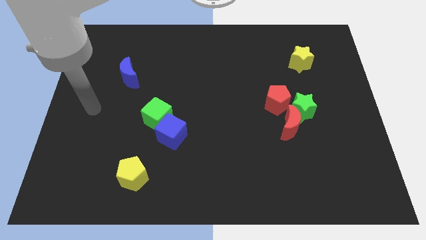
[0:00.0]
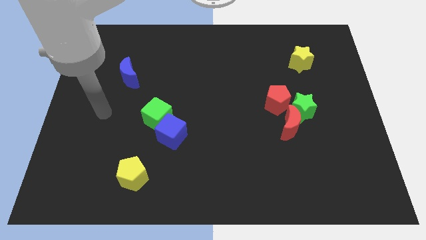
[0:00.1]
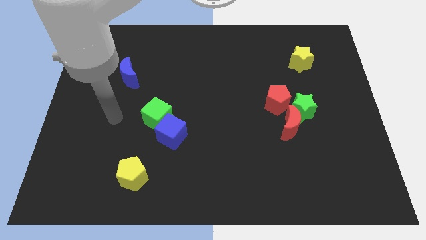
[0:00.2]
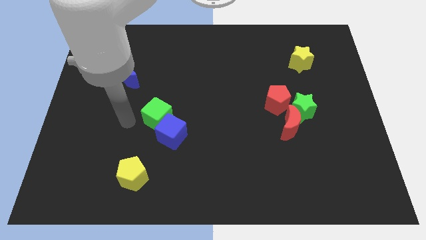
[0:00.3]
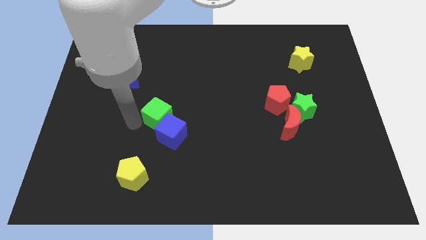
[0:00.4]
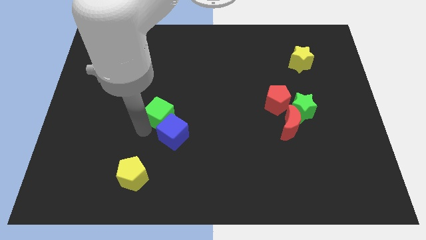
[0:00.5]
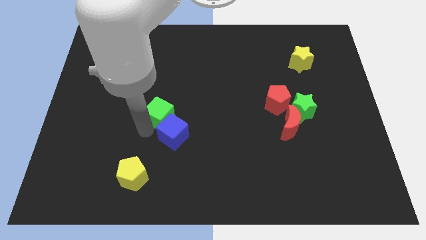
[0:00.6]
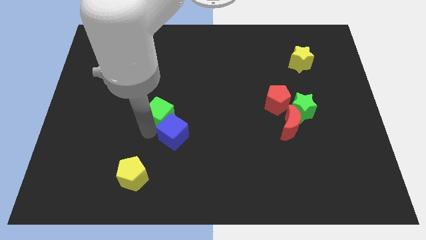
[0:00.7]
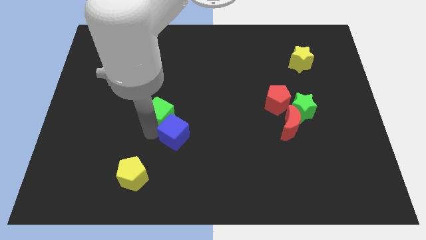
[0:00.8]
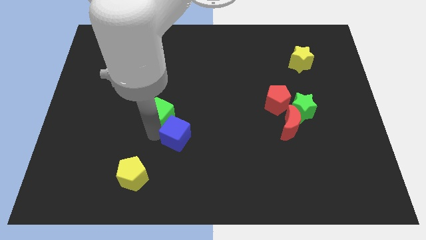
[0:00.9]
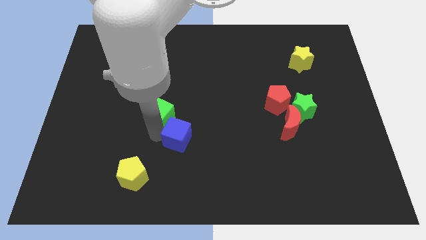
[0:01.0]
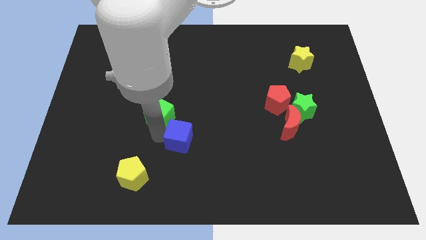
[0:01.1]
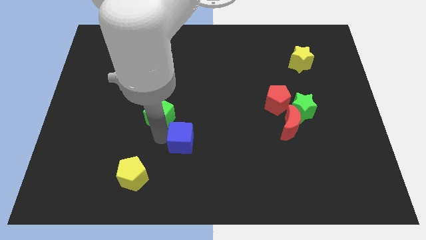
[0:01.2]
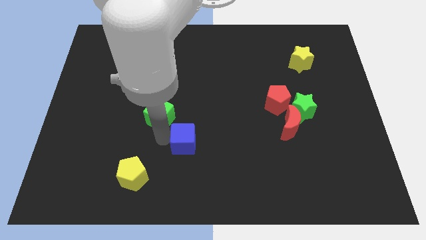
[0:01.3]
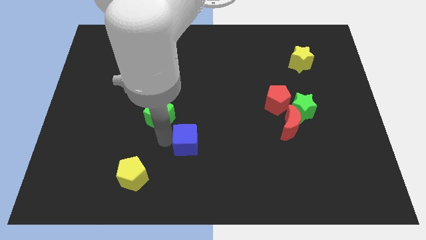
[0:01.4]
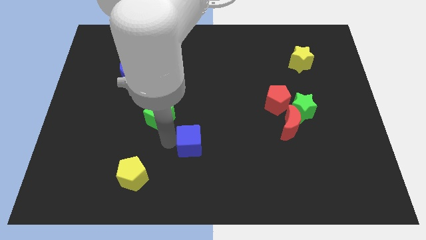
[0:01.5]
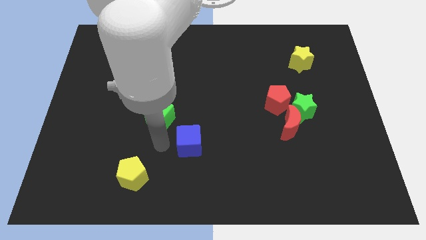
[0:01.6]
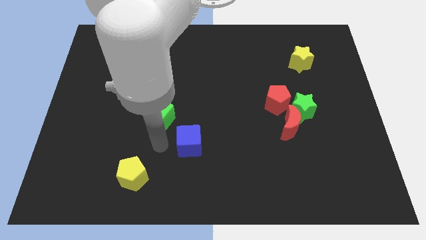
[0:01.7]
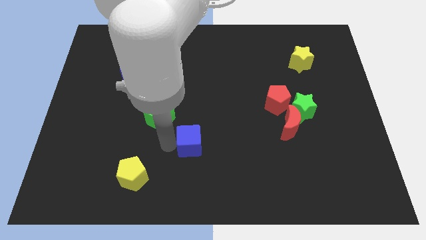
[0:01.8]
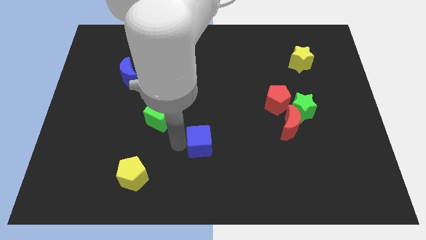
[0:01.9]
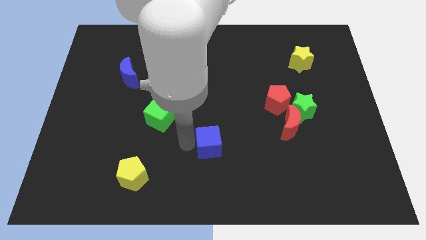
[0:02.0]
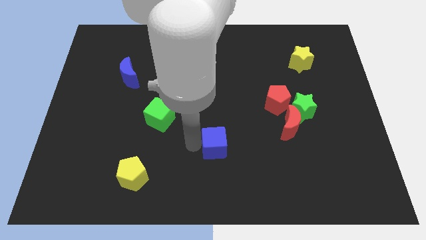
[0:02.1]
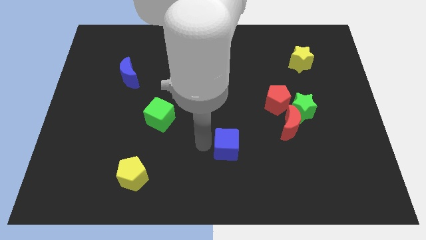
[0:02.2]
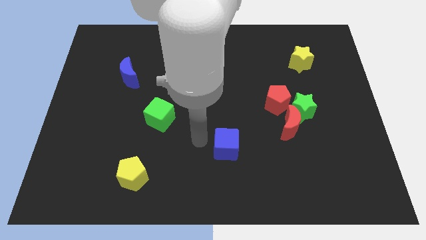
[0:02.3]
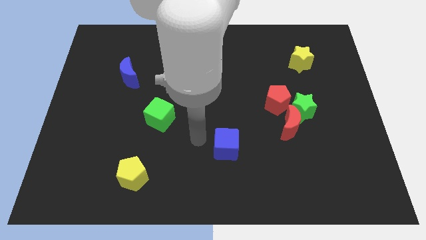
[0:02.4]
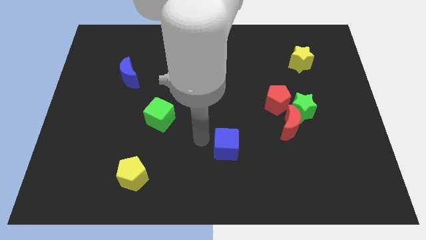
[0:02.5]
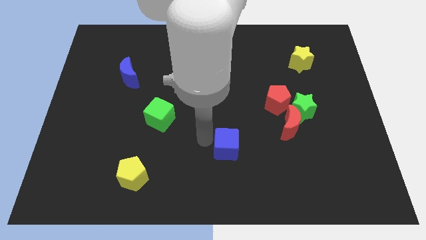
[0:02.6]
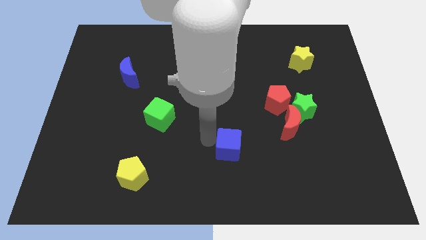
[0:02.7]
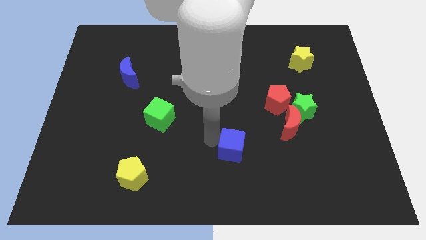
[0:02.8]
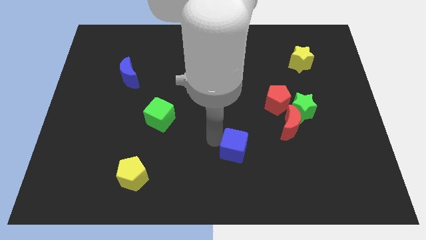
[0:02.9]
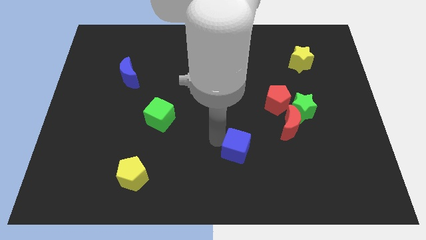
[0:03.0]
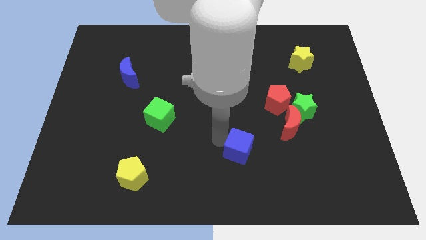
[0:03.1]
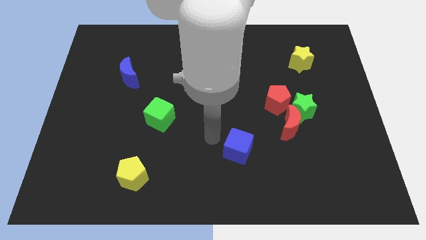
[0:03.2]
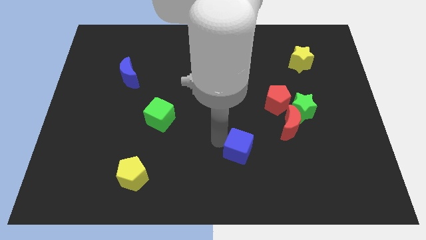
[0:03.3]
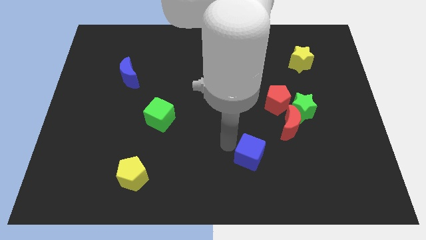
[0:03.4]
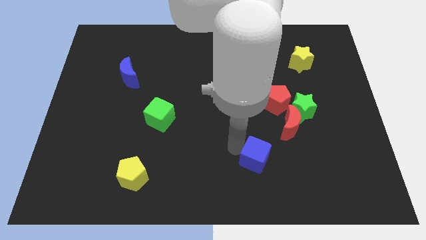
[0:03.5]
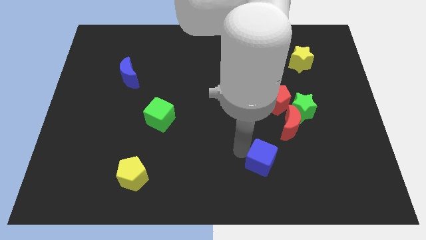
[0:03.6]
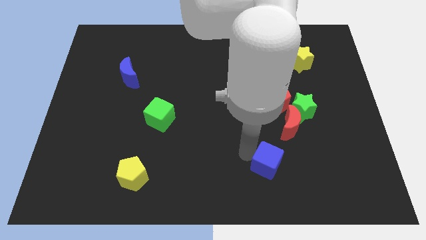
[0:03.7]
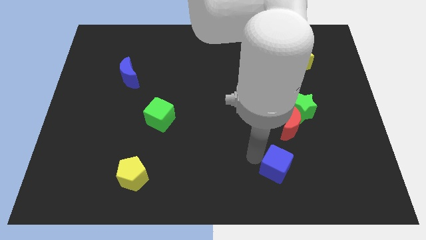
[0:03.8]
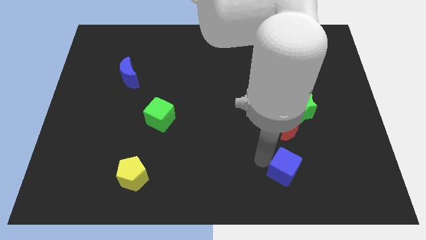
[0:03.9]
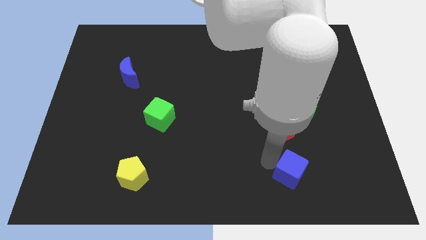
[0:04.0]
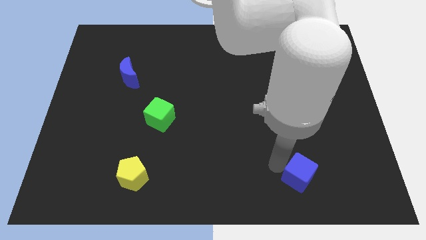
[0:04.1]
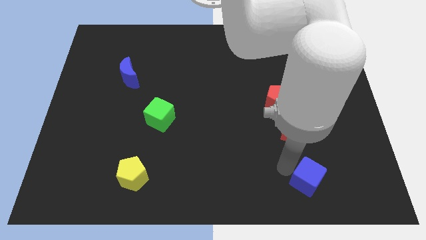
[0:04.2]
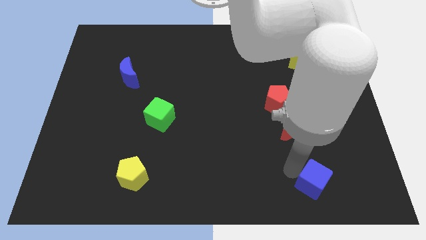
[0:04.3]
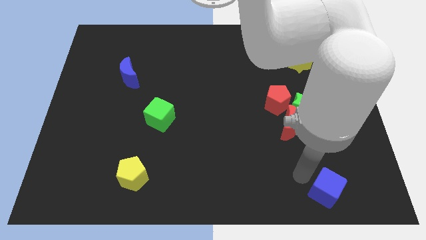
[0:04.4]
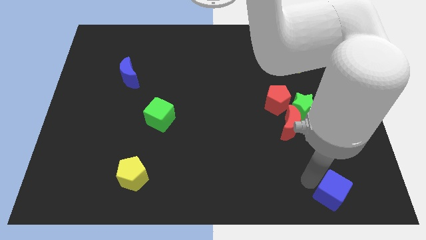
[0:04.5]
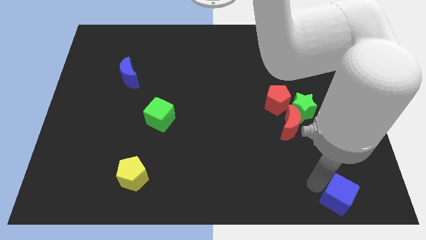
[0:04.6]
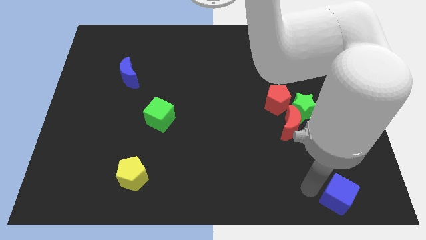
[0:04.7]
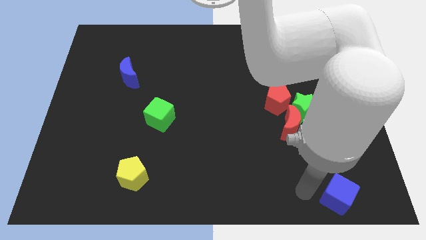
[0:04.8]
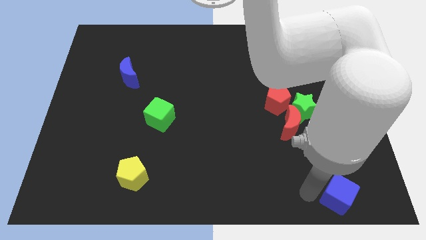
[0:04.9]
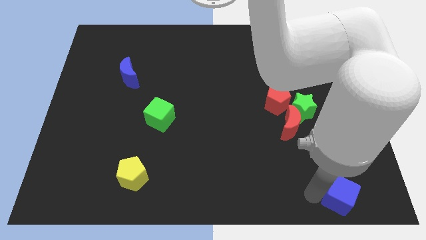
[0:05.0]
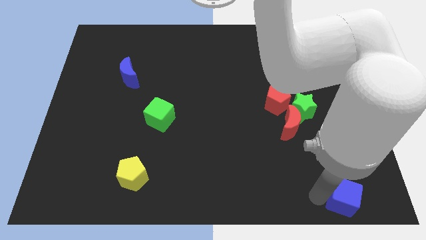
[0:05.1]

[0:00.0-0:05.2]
slide the blue cube to the bottom right of the board
